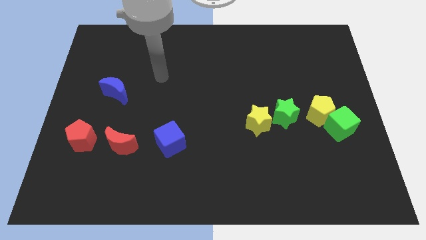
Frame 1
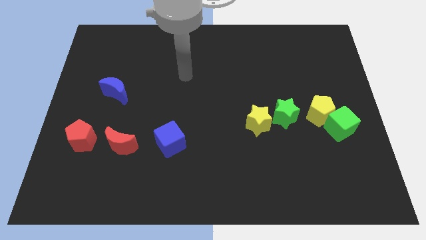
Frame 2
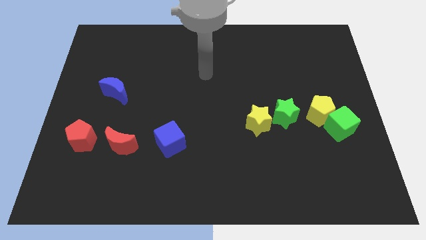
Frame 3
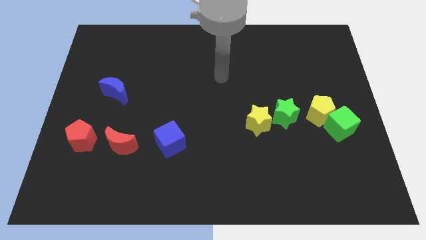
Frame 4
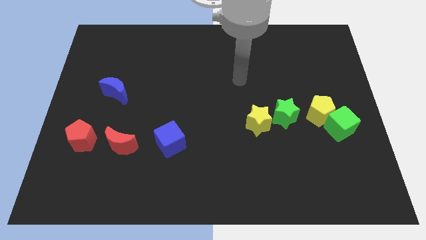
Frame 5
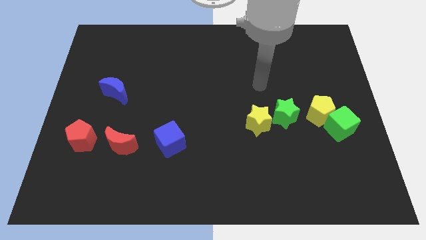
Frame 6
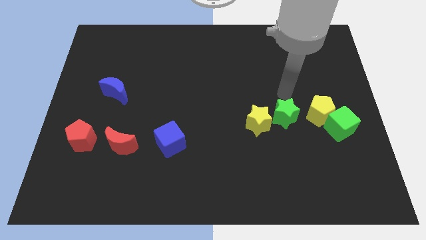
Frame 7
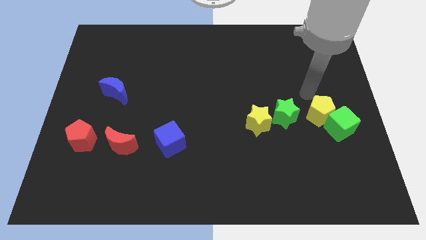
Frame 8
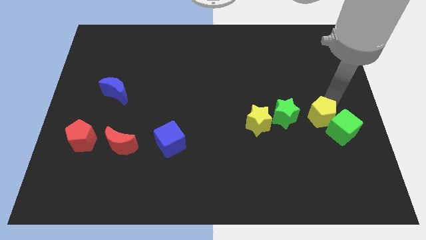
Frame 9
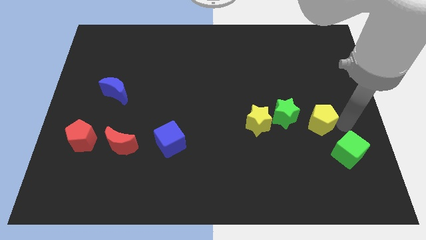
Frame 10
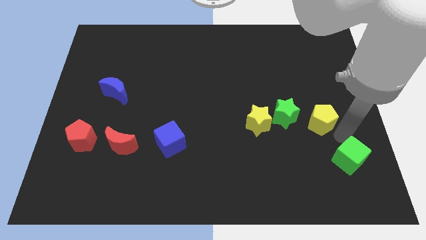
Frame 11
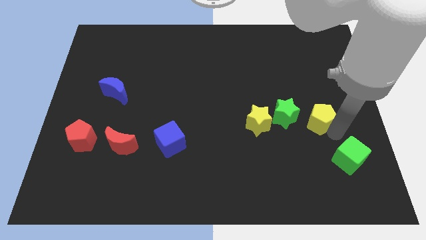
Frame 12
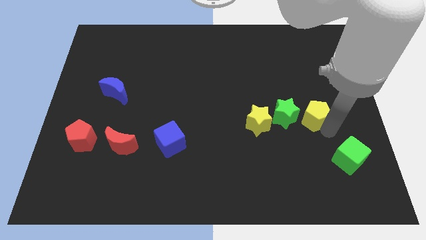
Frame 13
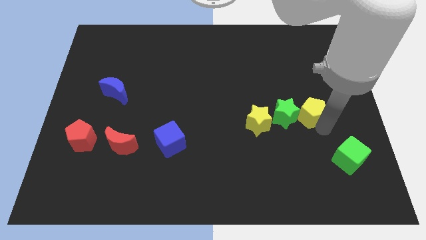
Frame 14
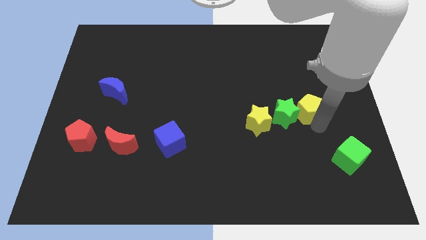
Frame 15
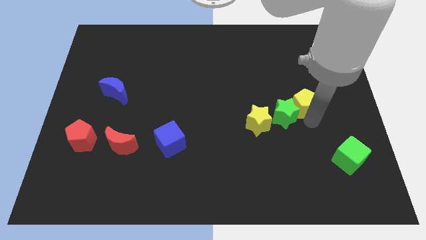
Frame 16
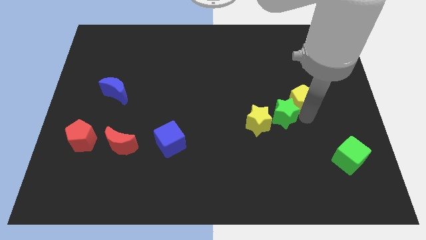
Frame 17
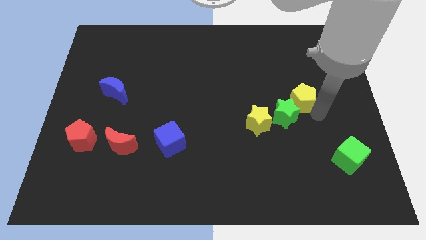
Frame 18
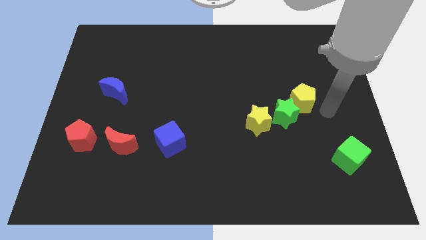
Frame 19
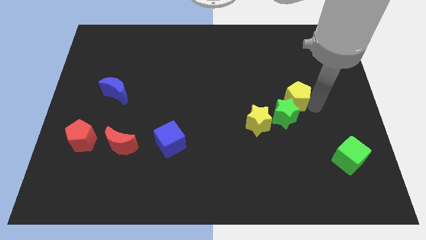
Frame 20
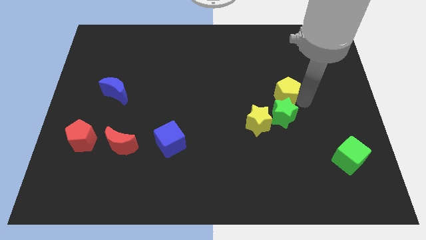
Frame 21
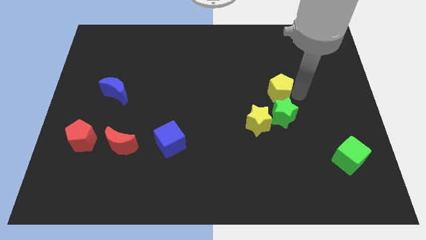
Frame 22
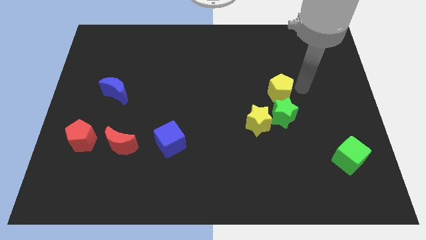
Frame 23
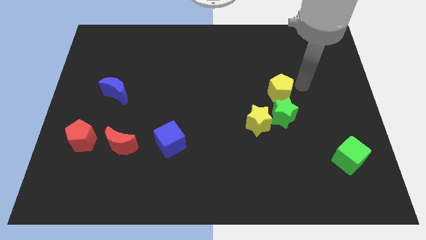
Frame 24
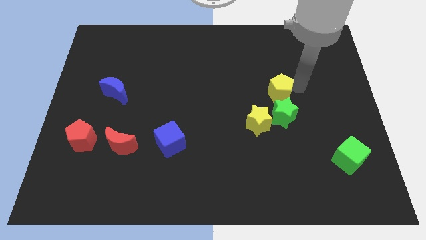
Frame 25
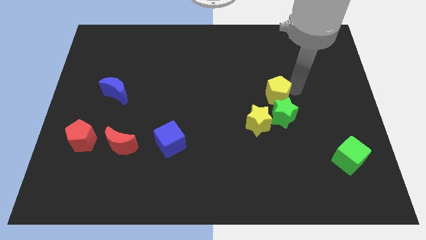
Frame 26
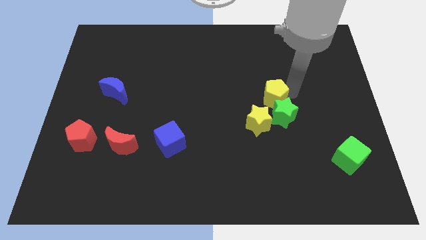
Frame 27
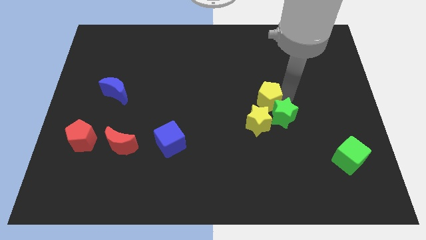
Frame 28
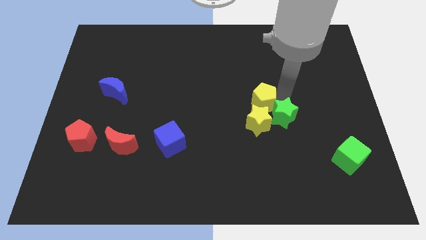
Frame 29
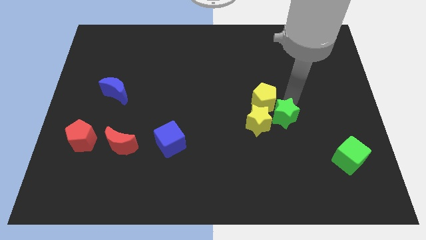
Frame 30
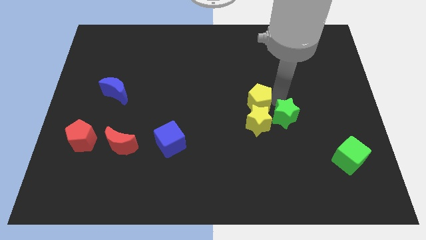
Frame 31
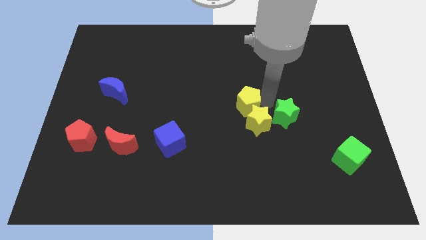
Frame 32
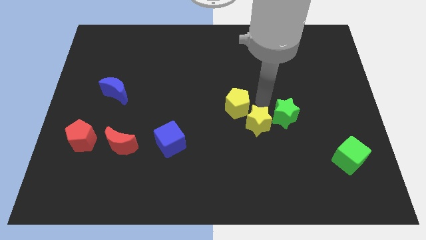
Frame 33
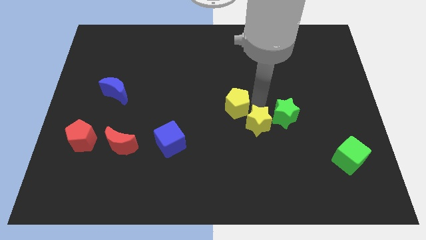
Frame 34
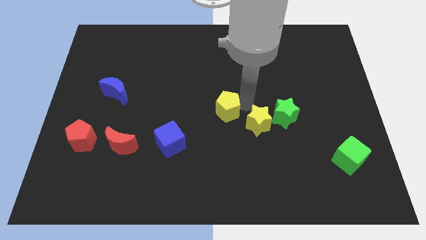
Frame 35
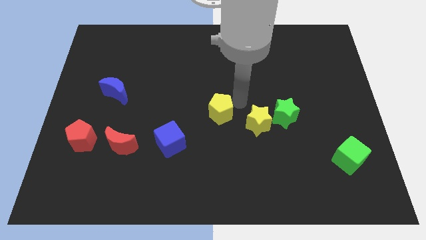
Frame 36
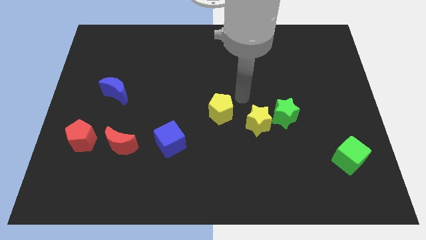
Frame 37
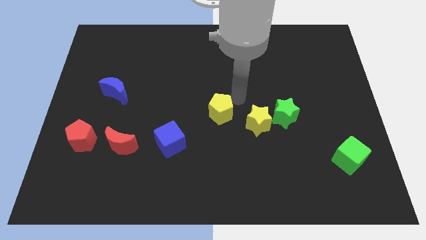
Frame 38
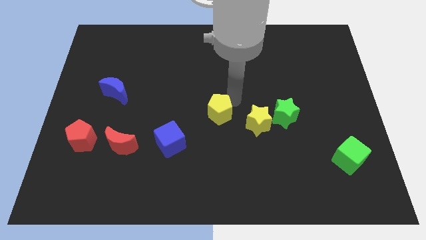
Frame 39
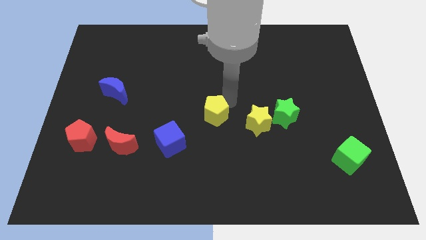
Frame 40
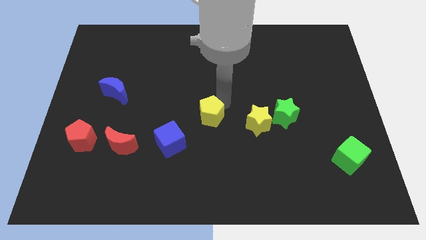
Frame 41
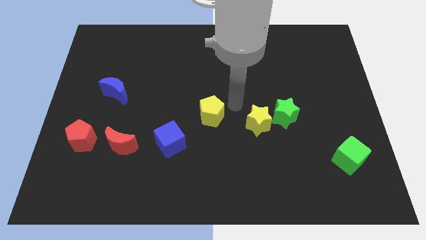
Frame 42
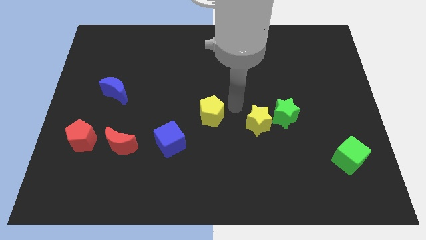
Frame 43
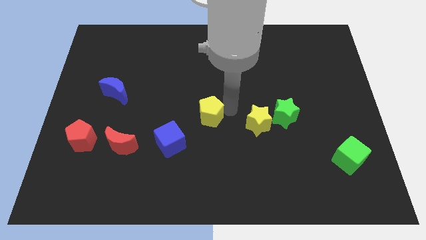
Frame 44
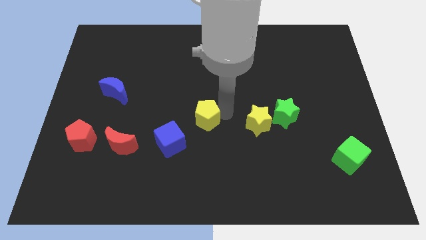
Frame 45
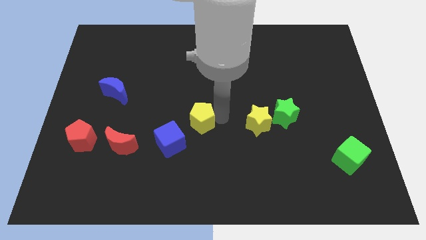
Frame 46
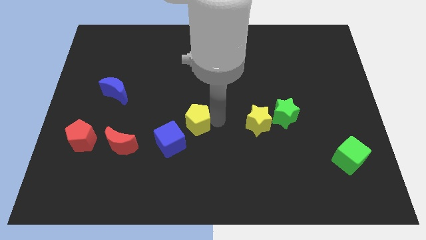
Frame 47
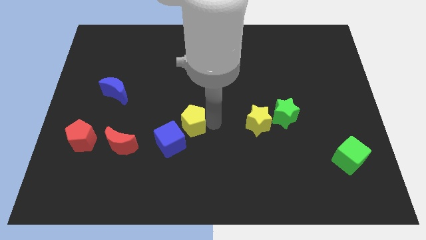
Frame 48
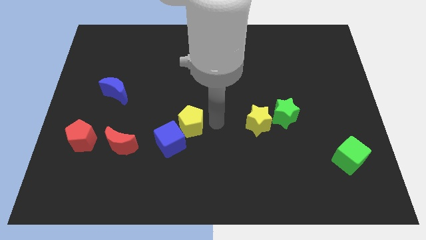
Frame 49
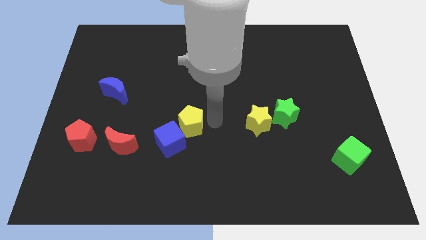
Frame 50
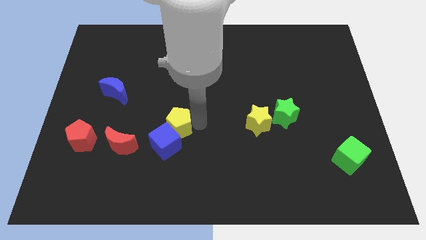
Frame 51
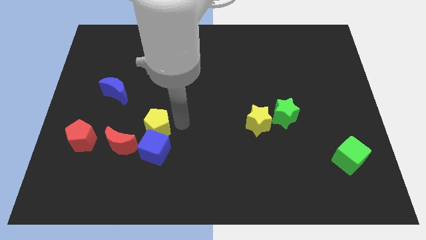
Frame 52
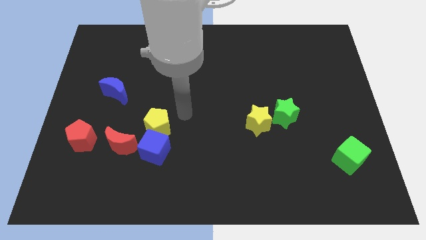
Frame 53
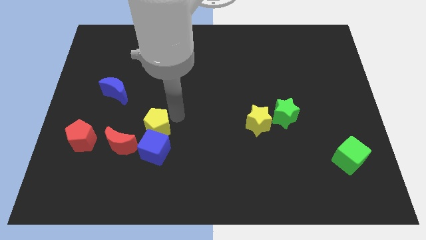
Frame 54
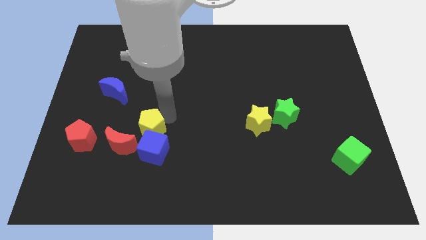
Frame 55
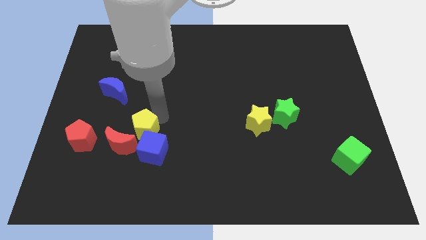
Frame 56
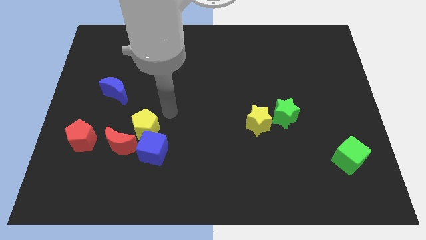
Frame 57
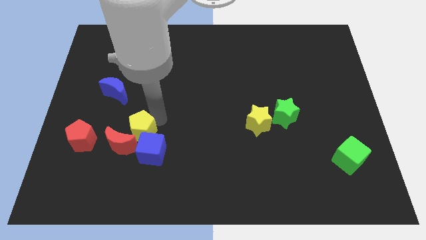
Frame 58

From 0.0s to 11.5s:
put the yellow pentagon close to the red moon

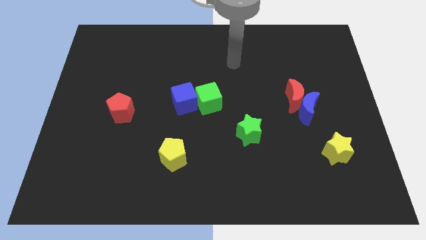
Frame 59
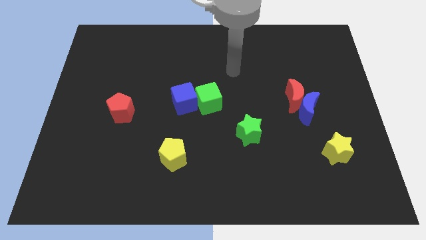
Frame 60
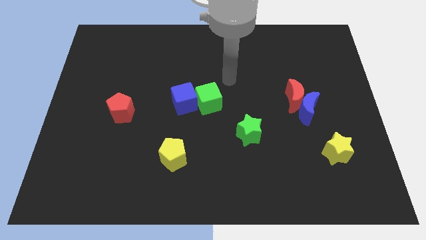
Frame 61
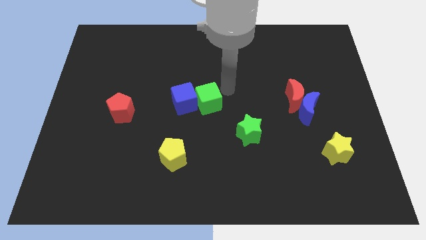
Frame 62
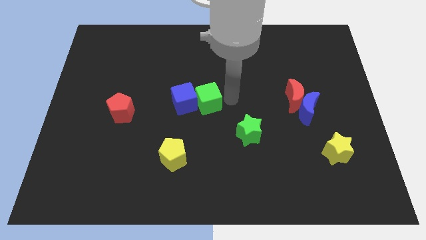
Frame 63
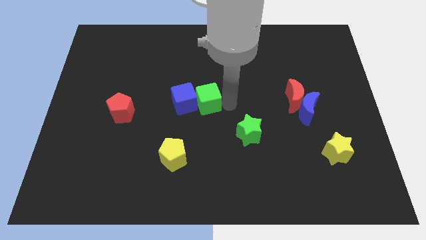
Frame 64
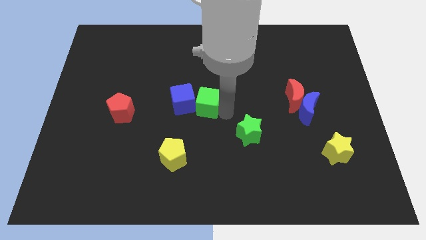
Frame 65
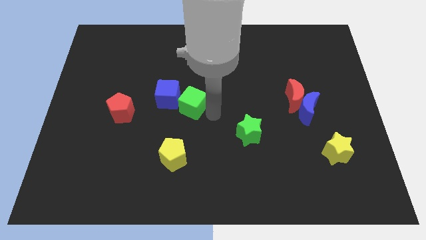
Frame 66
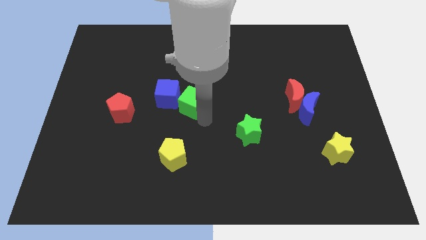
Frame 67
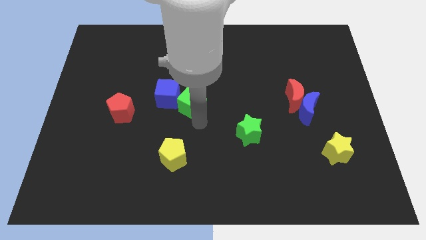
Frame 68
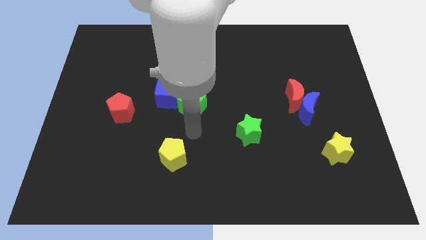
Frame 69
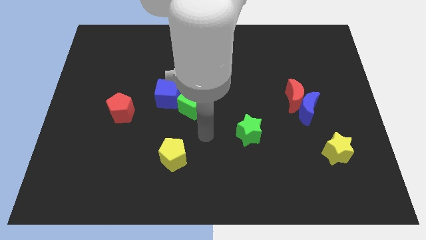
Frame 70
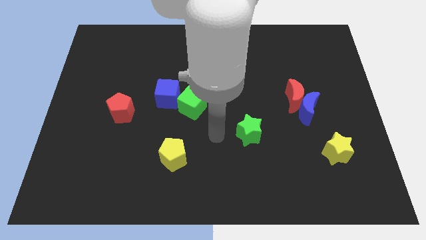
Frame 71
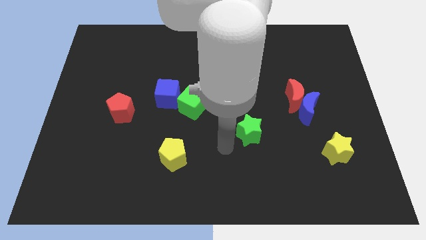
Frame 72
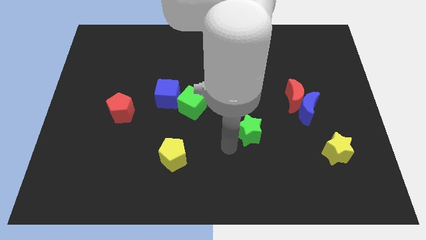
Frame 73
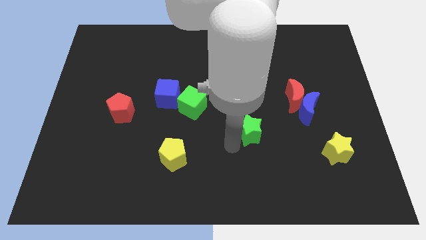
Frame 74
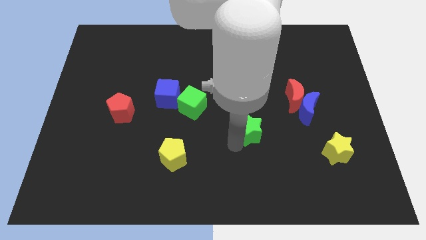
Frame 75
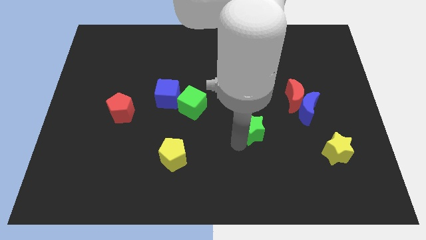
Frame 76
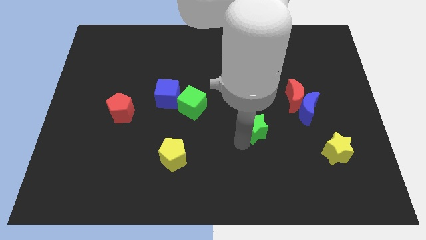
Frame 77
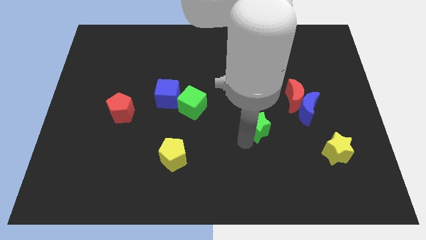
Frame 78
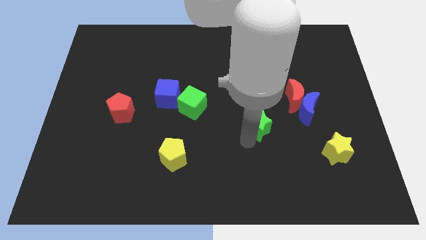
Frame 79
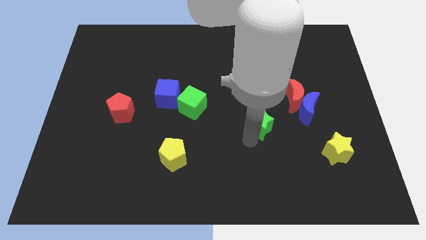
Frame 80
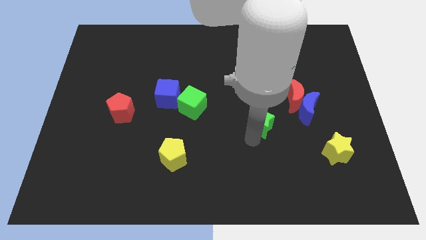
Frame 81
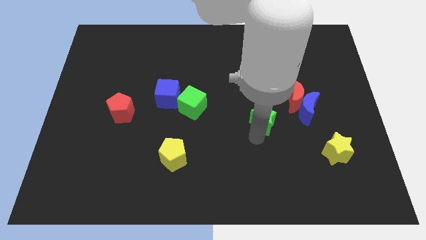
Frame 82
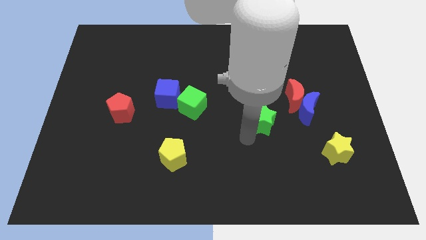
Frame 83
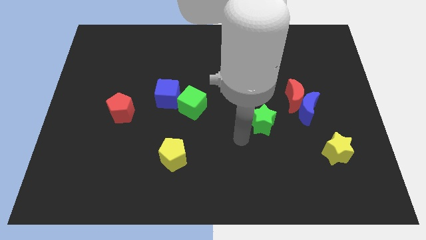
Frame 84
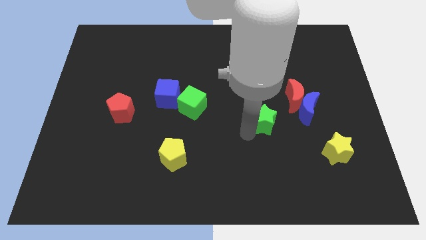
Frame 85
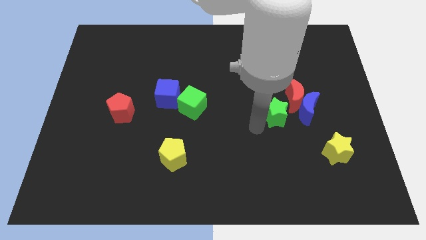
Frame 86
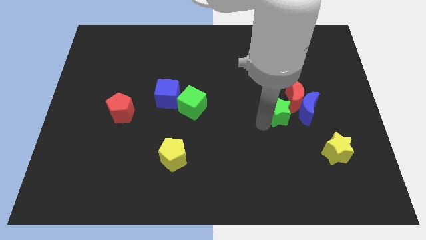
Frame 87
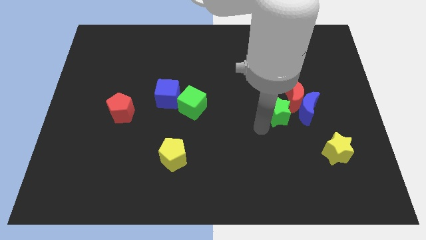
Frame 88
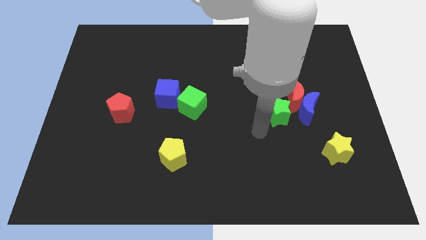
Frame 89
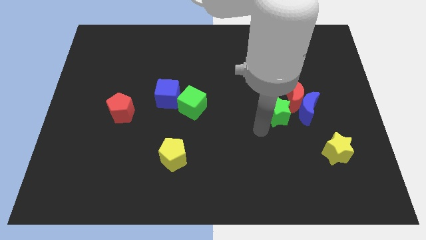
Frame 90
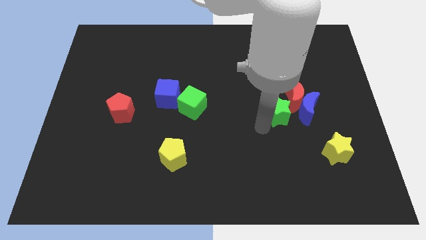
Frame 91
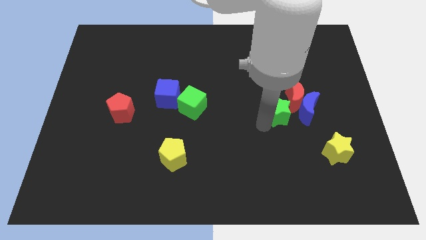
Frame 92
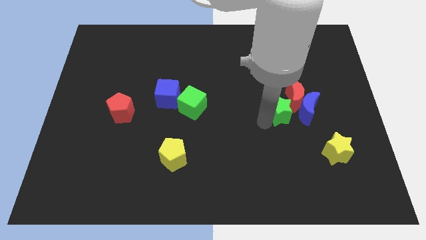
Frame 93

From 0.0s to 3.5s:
put the green star towards the red moon
